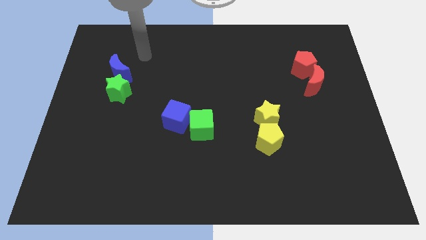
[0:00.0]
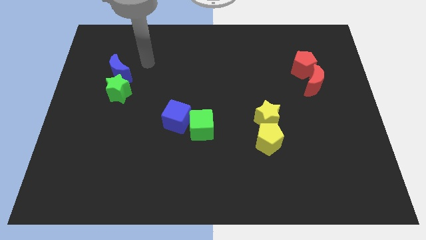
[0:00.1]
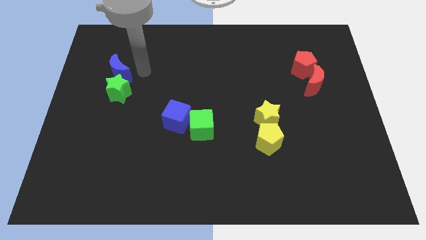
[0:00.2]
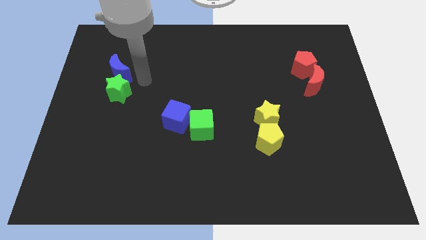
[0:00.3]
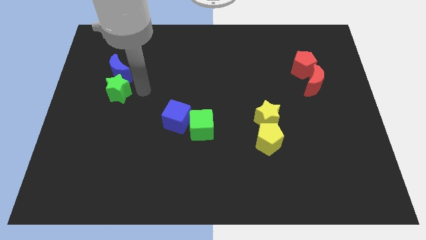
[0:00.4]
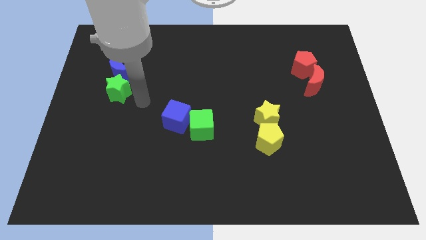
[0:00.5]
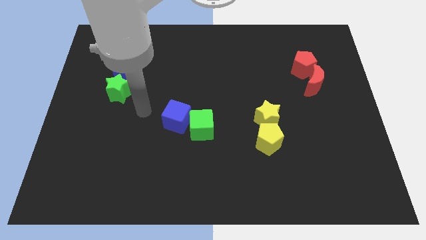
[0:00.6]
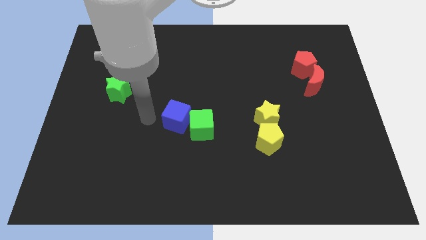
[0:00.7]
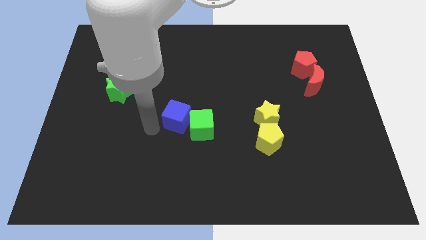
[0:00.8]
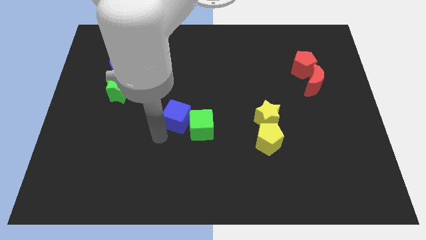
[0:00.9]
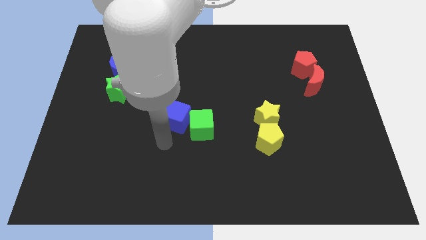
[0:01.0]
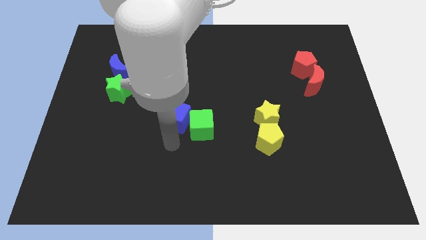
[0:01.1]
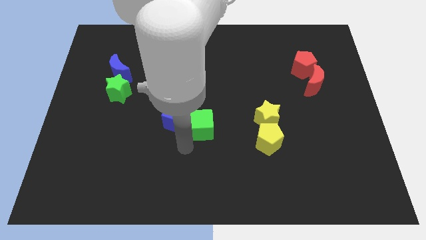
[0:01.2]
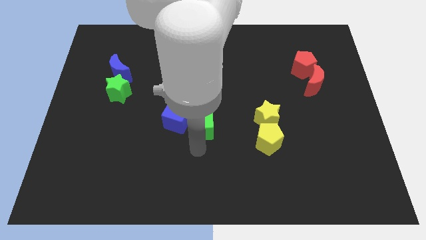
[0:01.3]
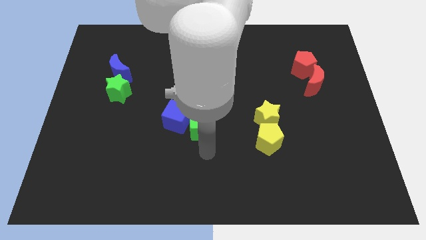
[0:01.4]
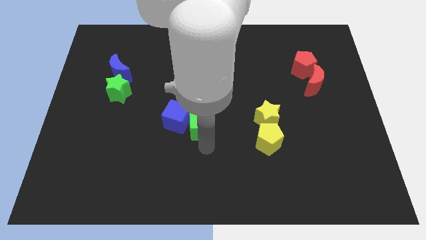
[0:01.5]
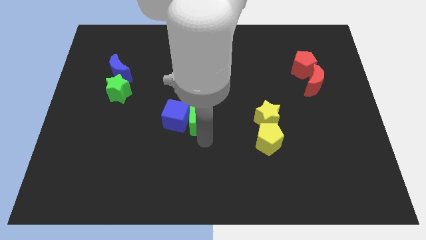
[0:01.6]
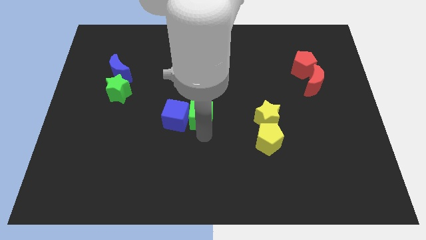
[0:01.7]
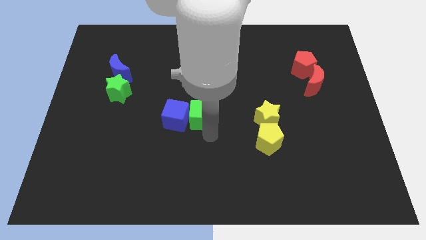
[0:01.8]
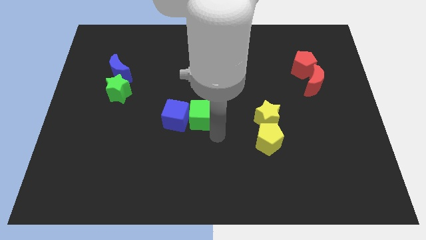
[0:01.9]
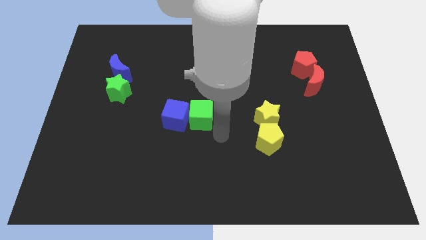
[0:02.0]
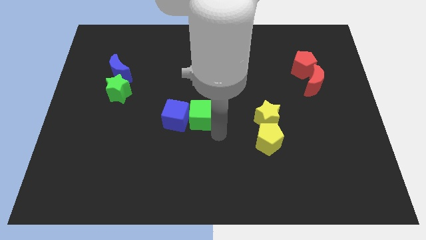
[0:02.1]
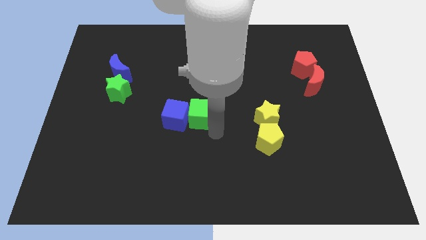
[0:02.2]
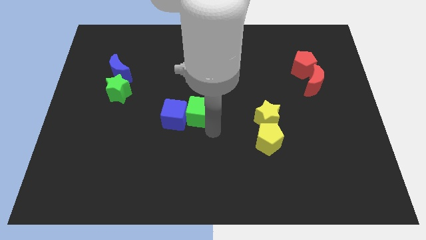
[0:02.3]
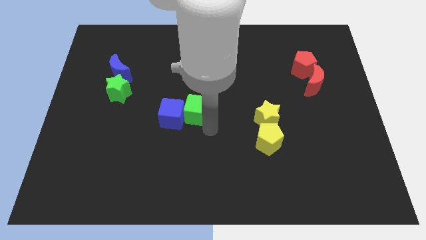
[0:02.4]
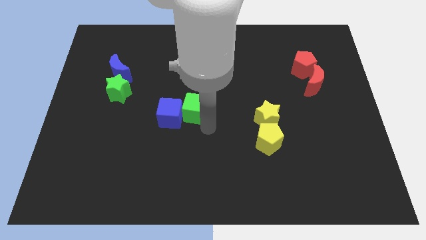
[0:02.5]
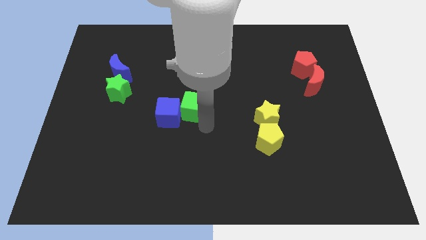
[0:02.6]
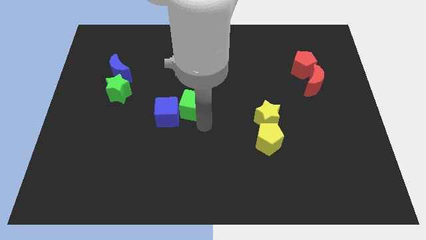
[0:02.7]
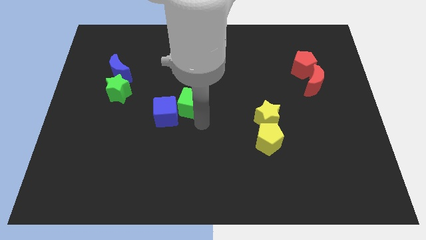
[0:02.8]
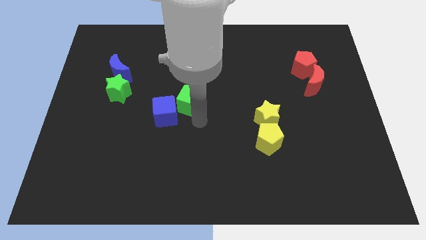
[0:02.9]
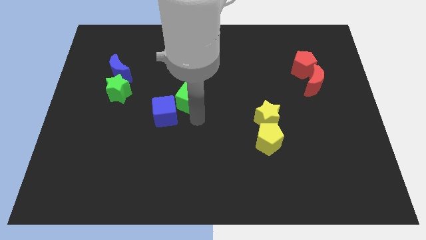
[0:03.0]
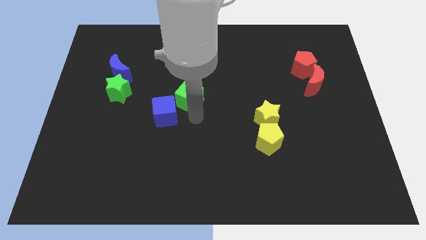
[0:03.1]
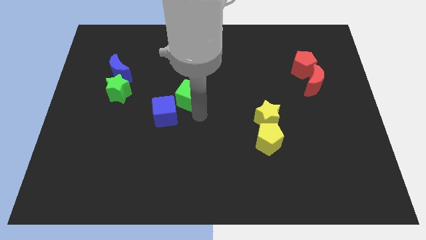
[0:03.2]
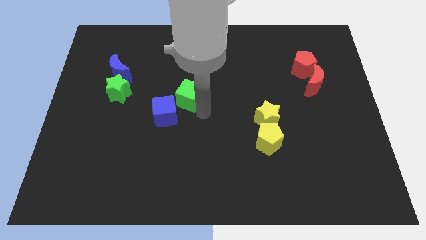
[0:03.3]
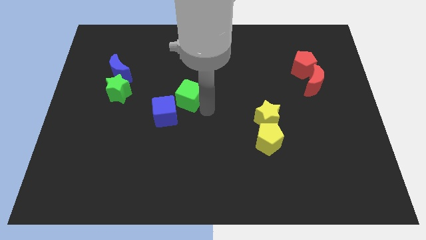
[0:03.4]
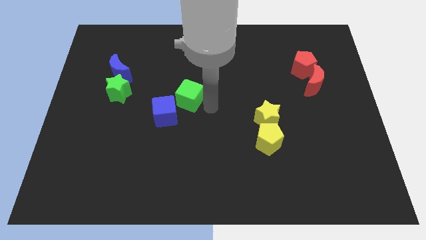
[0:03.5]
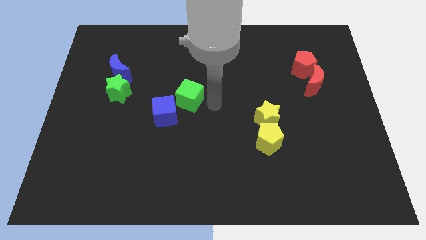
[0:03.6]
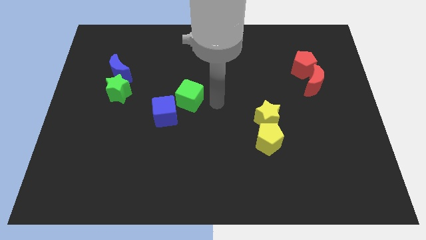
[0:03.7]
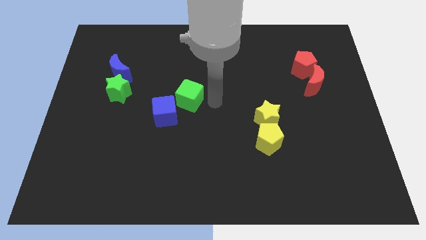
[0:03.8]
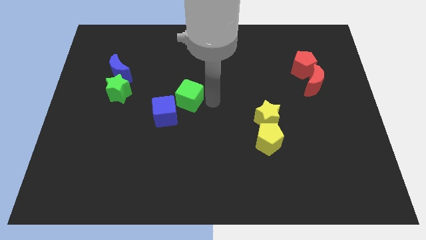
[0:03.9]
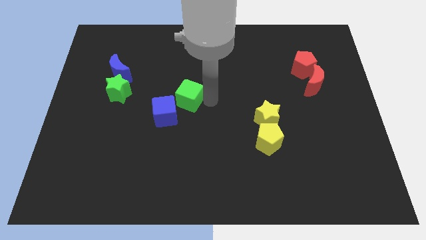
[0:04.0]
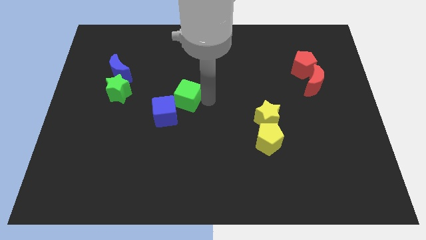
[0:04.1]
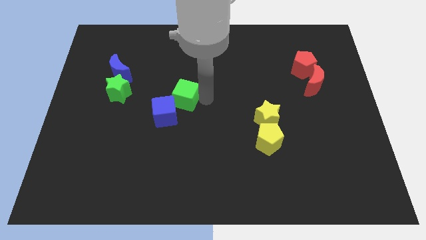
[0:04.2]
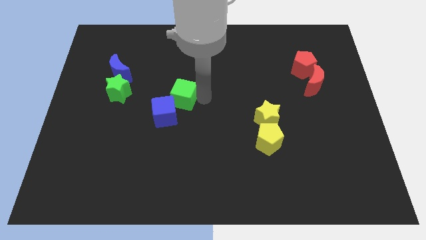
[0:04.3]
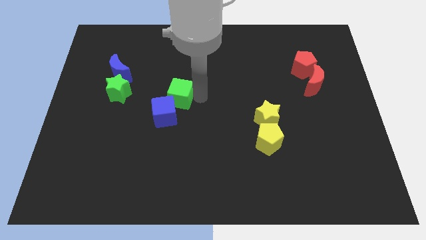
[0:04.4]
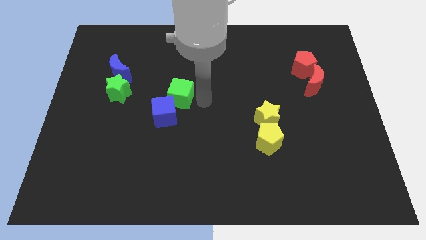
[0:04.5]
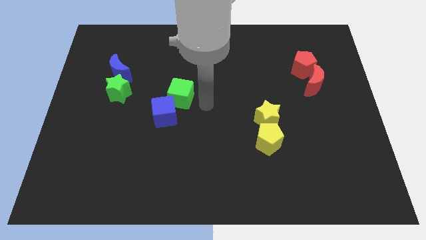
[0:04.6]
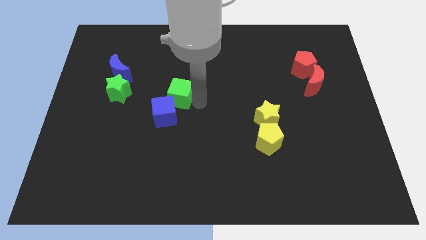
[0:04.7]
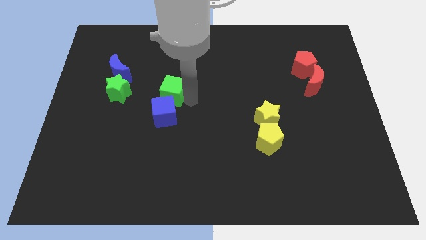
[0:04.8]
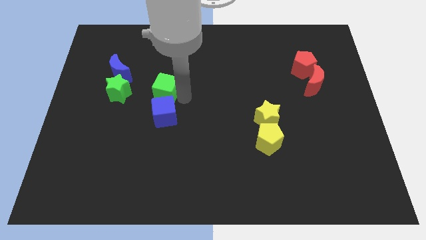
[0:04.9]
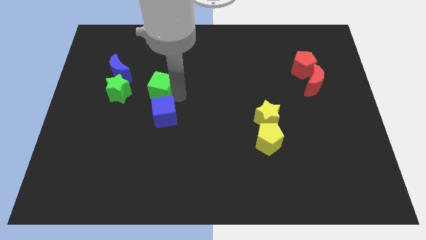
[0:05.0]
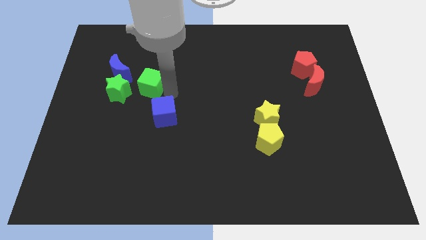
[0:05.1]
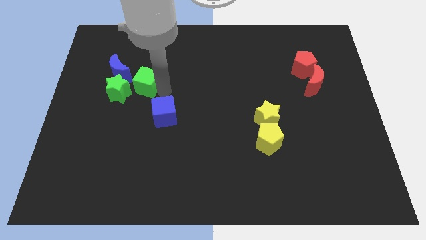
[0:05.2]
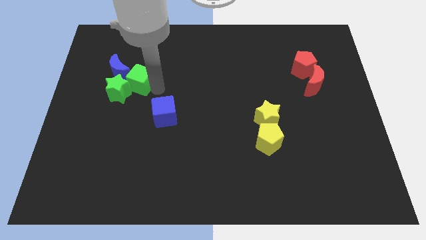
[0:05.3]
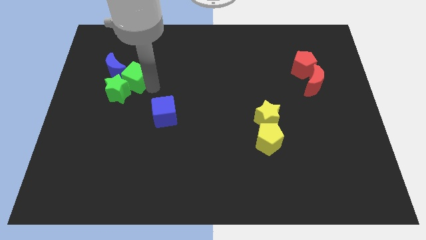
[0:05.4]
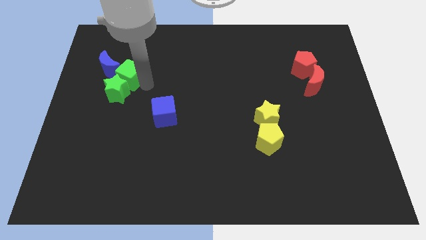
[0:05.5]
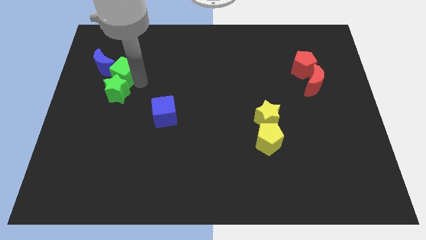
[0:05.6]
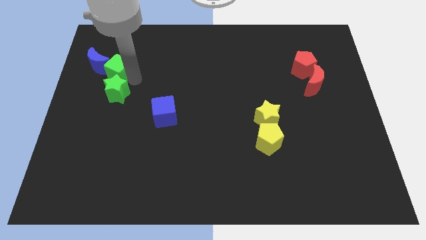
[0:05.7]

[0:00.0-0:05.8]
push the green cube to the blue moon
